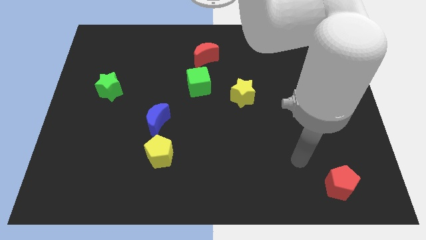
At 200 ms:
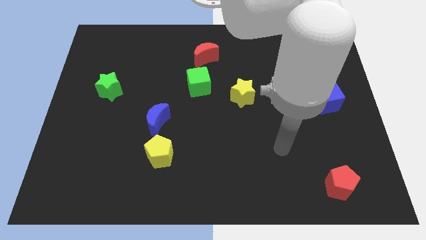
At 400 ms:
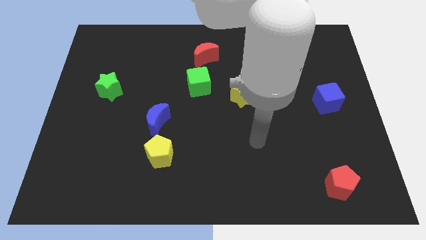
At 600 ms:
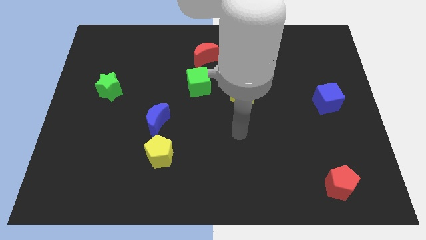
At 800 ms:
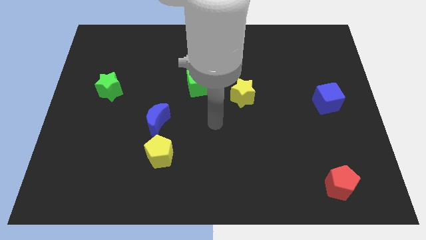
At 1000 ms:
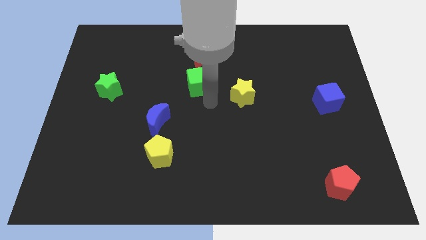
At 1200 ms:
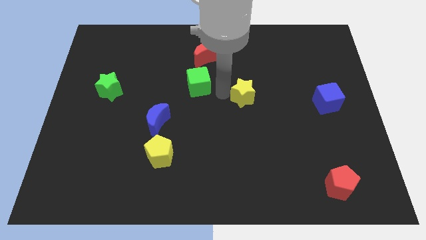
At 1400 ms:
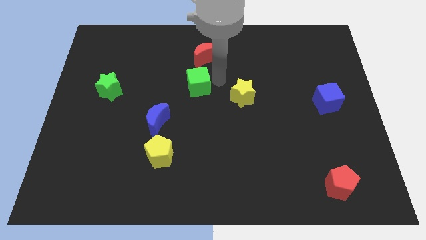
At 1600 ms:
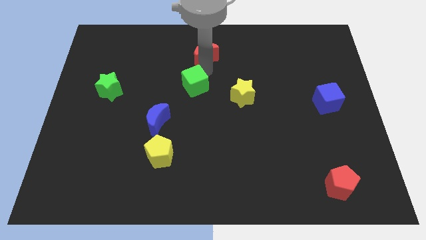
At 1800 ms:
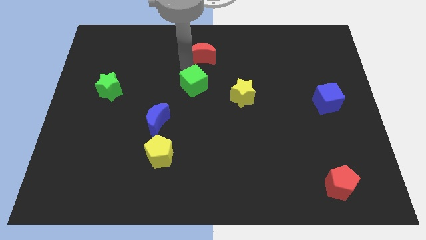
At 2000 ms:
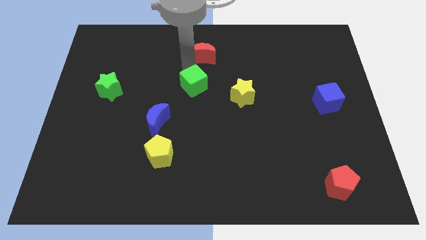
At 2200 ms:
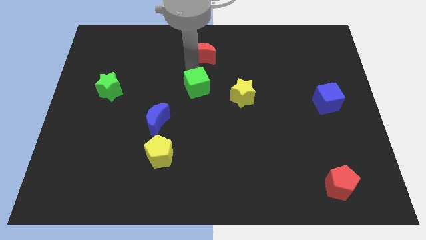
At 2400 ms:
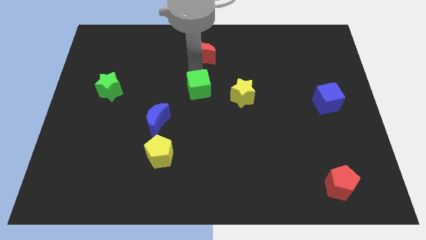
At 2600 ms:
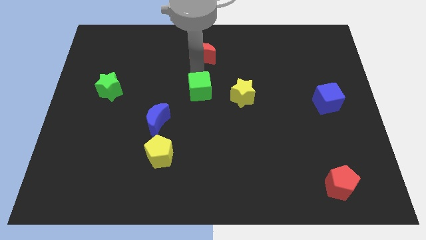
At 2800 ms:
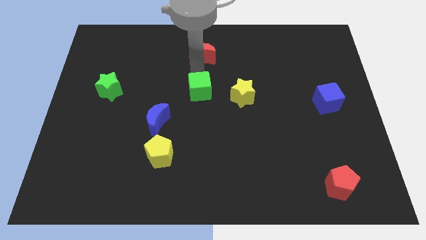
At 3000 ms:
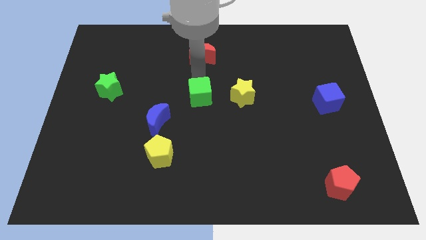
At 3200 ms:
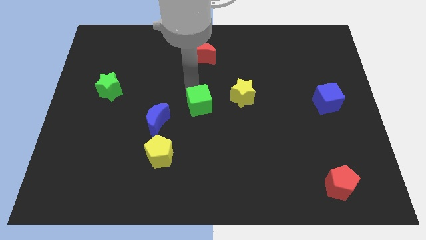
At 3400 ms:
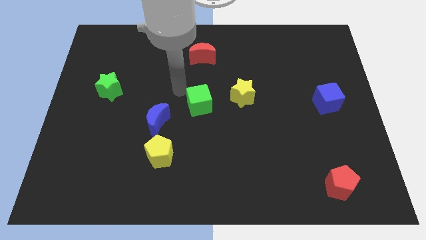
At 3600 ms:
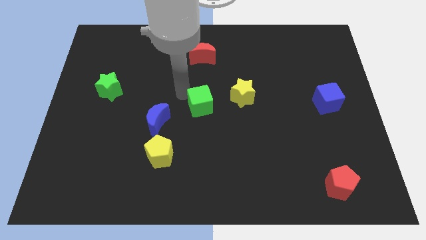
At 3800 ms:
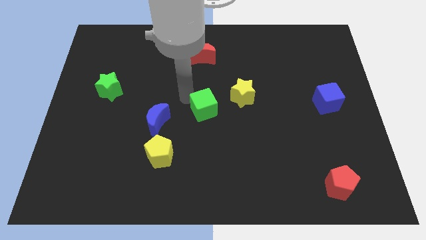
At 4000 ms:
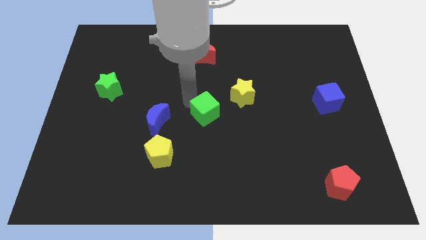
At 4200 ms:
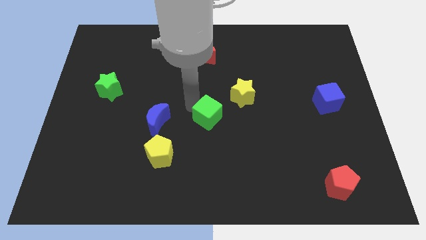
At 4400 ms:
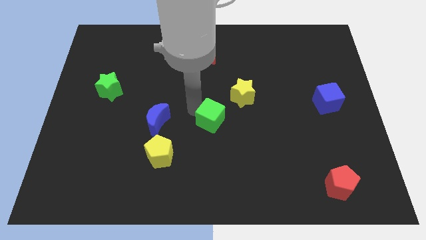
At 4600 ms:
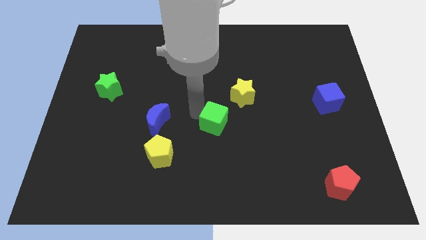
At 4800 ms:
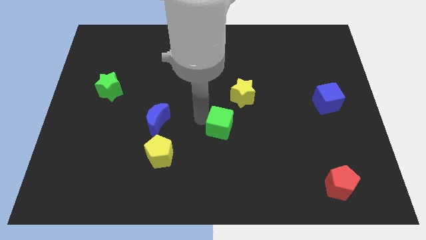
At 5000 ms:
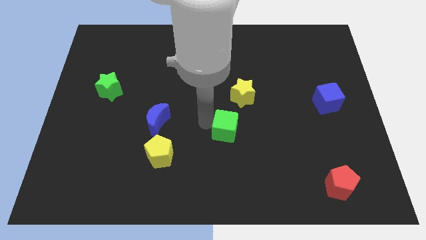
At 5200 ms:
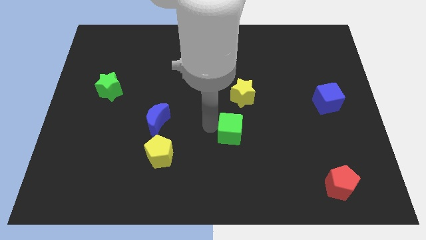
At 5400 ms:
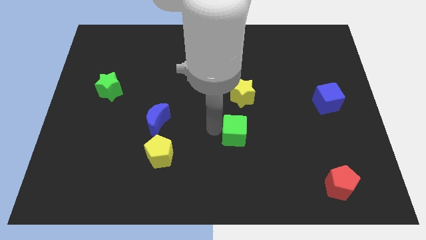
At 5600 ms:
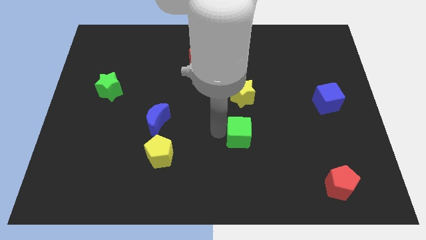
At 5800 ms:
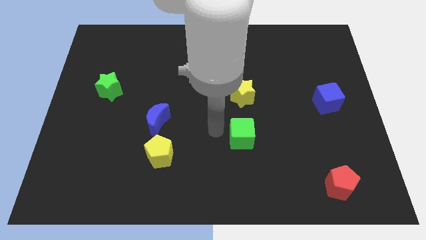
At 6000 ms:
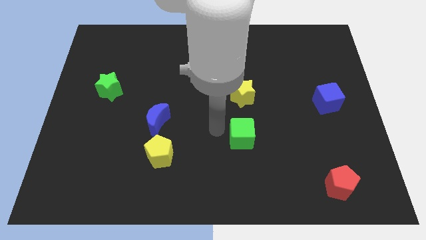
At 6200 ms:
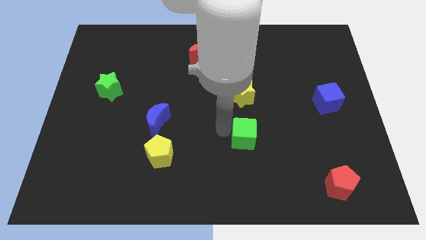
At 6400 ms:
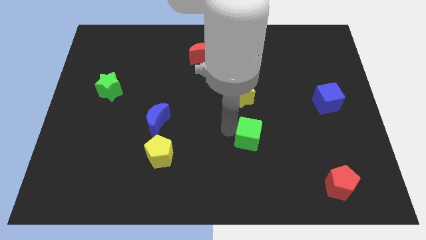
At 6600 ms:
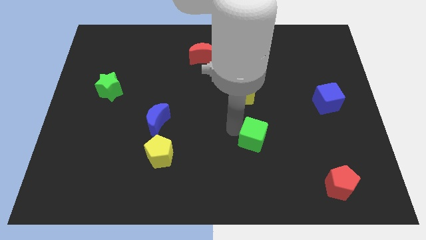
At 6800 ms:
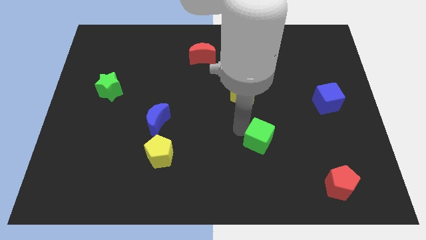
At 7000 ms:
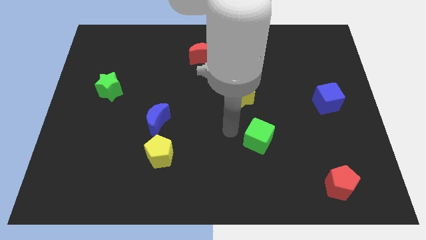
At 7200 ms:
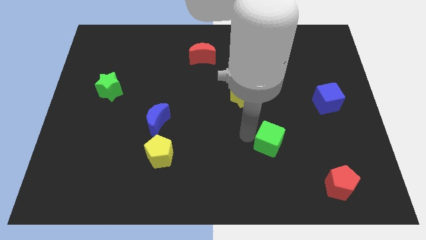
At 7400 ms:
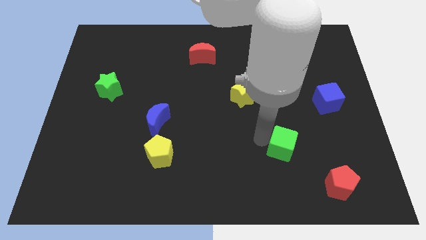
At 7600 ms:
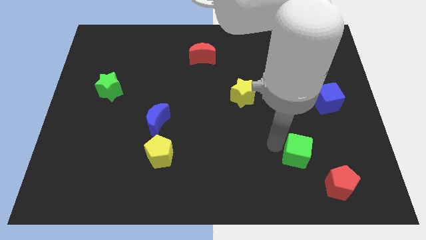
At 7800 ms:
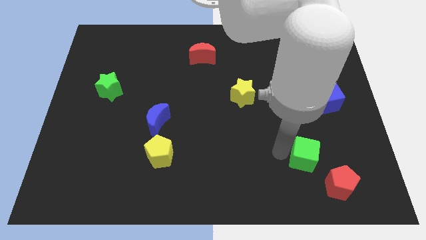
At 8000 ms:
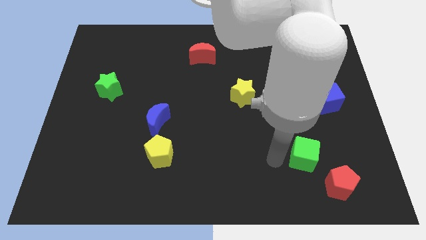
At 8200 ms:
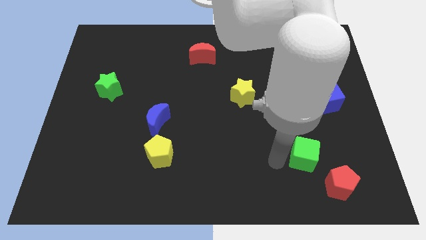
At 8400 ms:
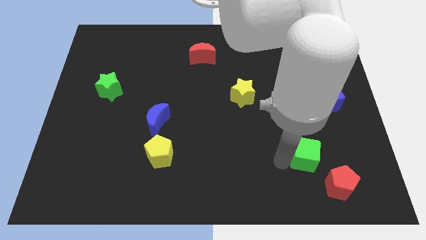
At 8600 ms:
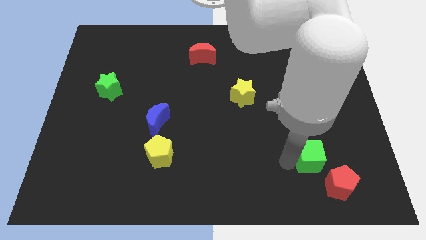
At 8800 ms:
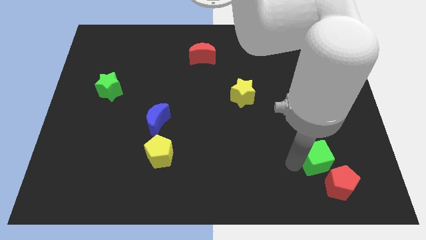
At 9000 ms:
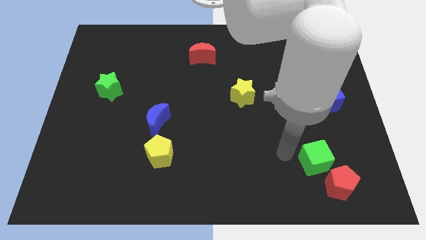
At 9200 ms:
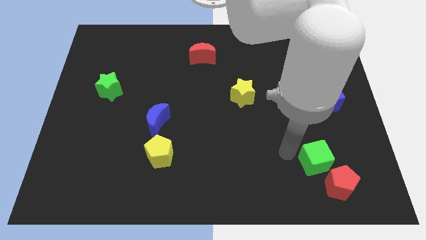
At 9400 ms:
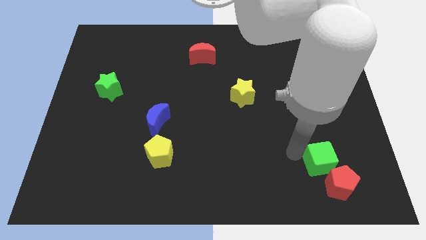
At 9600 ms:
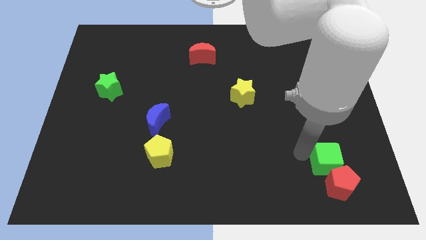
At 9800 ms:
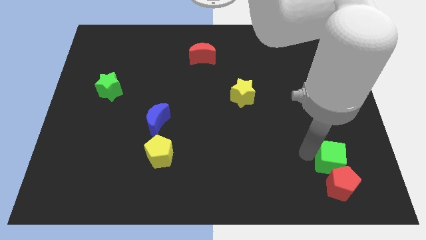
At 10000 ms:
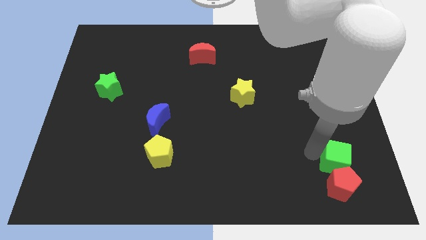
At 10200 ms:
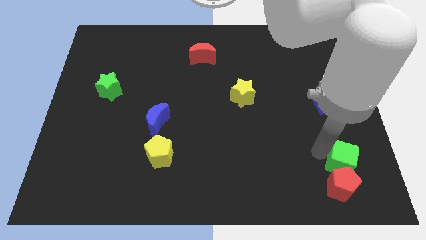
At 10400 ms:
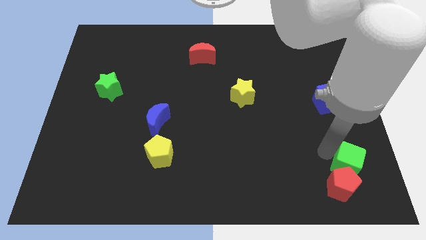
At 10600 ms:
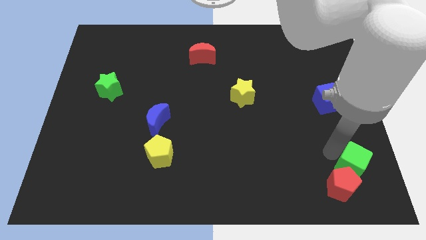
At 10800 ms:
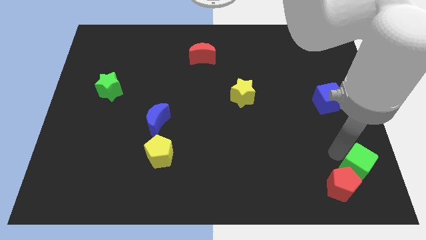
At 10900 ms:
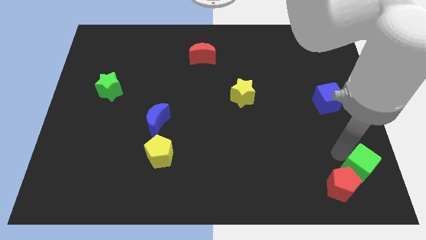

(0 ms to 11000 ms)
move the green cube to the lower right corner

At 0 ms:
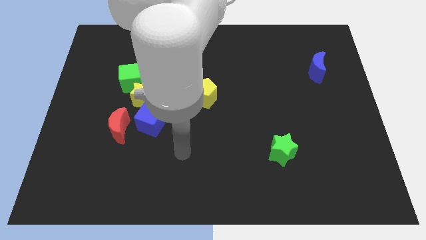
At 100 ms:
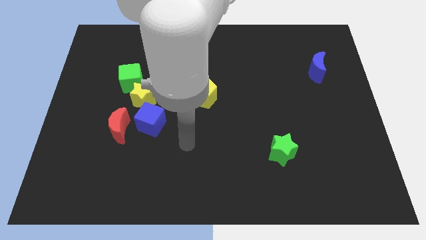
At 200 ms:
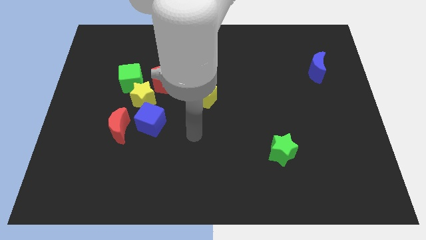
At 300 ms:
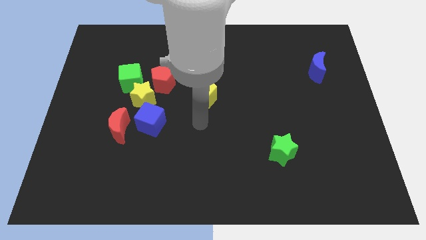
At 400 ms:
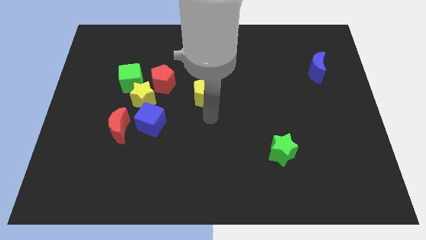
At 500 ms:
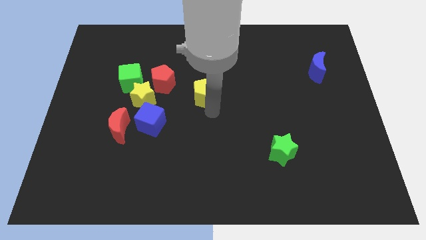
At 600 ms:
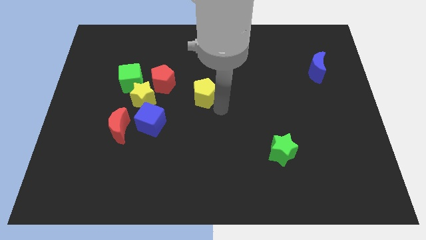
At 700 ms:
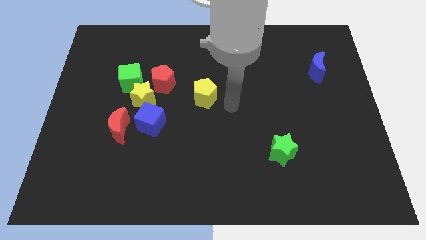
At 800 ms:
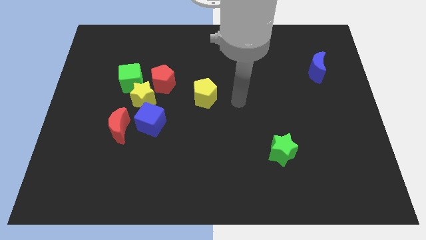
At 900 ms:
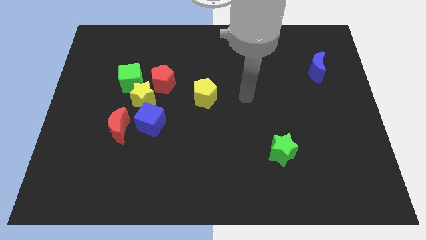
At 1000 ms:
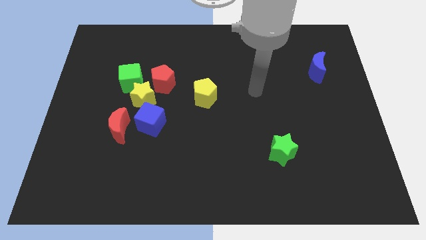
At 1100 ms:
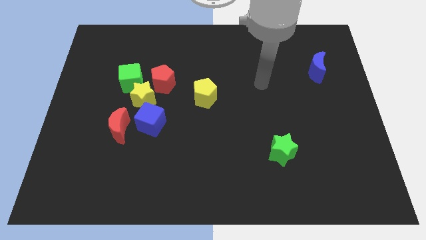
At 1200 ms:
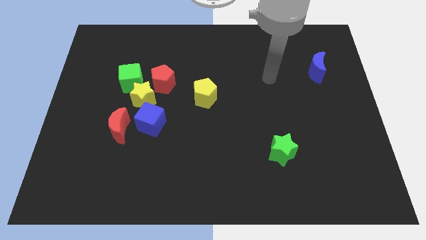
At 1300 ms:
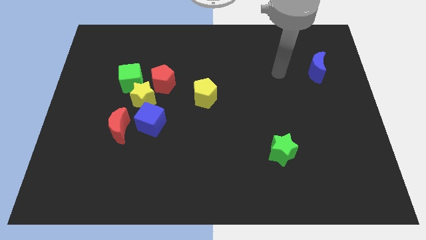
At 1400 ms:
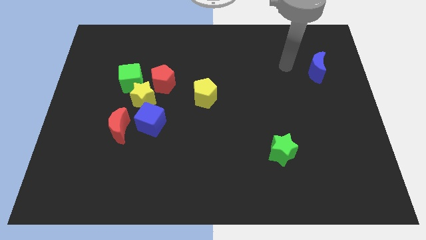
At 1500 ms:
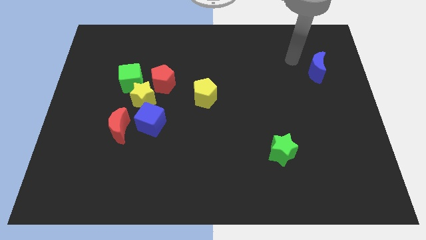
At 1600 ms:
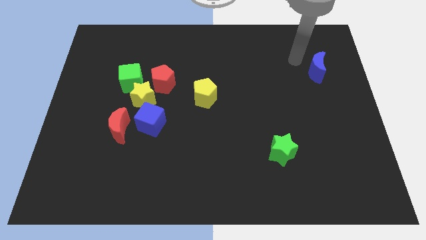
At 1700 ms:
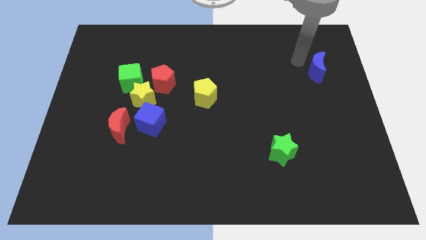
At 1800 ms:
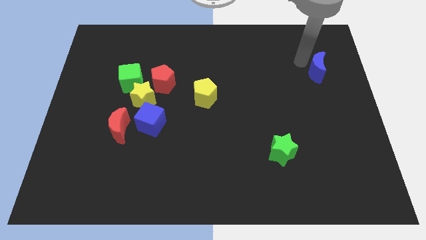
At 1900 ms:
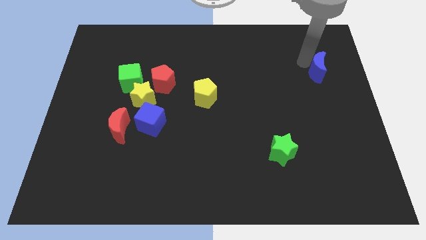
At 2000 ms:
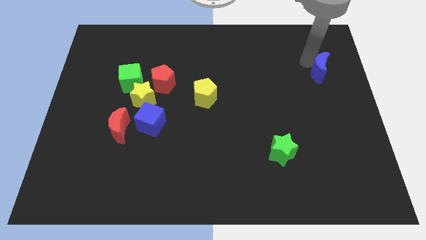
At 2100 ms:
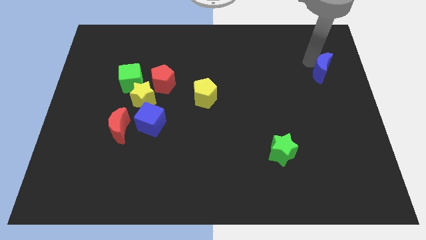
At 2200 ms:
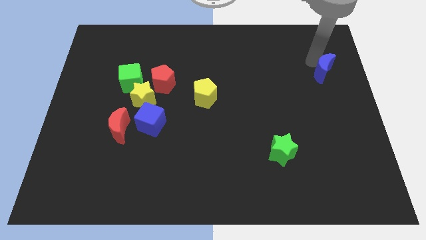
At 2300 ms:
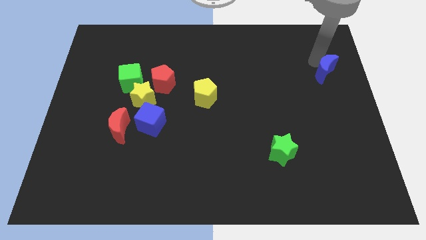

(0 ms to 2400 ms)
move the blue moon to the right side of the board
